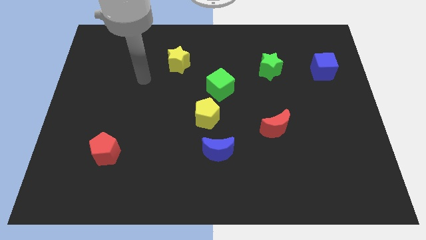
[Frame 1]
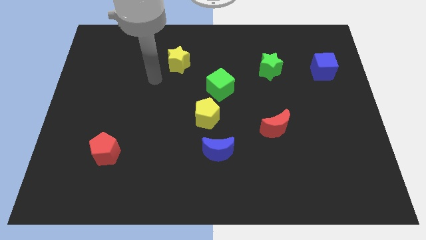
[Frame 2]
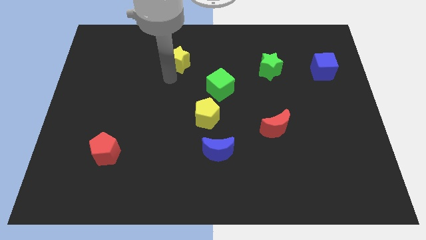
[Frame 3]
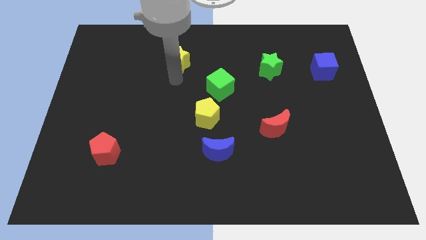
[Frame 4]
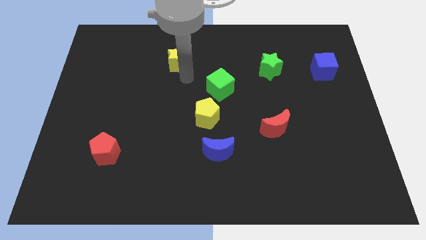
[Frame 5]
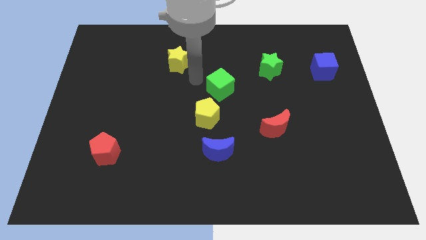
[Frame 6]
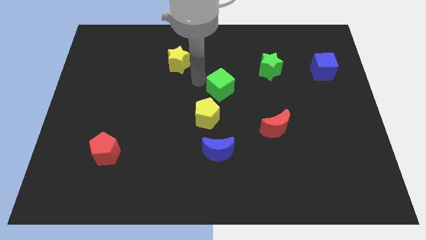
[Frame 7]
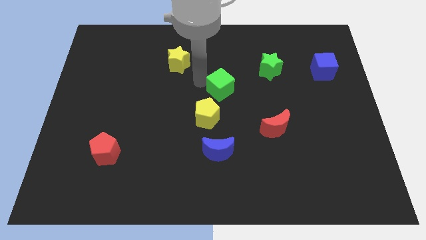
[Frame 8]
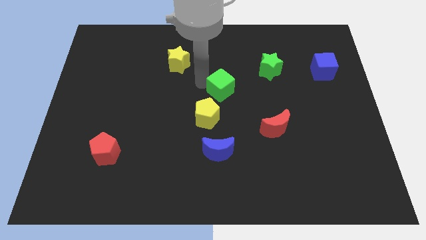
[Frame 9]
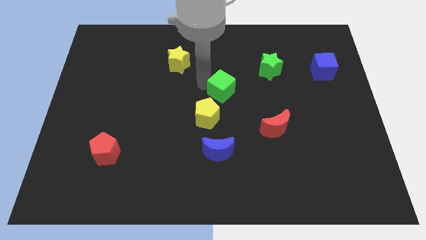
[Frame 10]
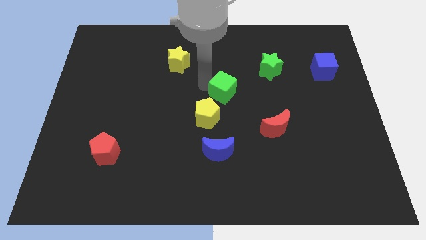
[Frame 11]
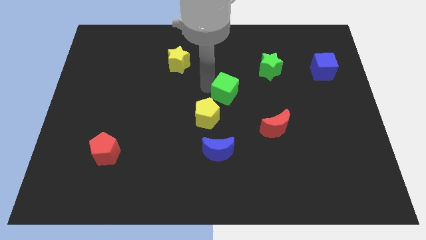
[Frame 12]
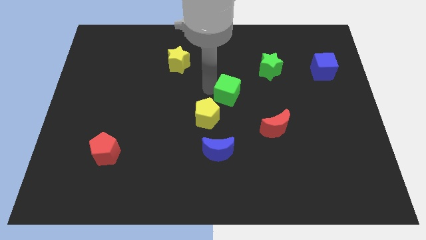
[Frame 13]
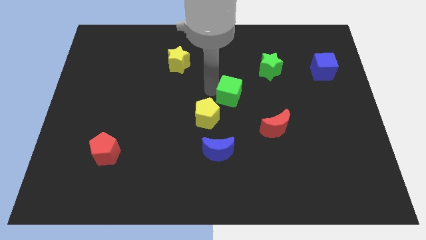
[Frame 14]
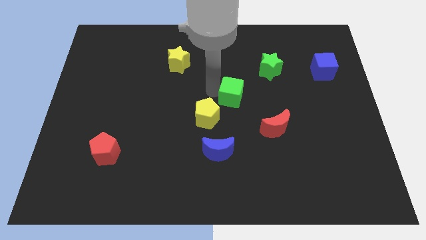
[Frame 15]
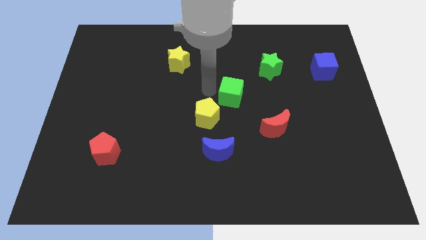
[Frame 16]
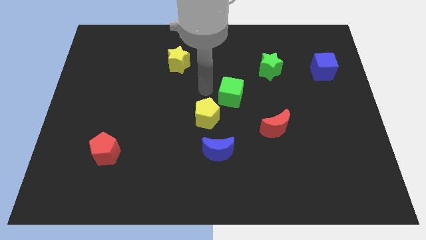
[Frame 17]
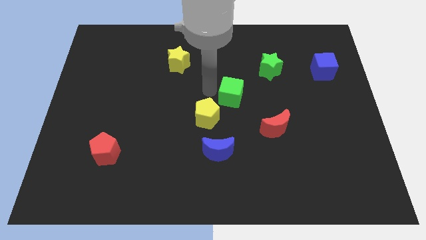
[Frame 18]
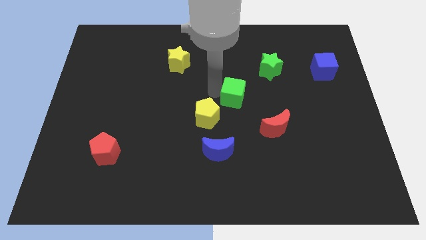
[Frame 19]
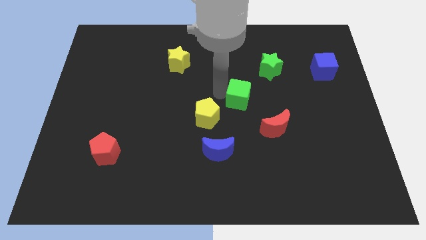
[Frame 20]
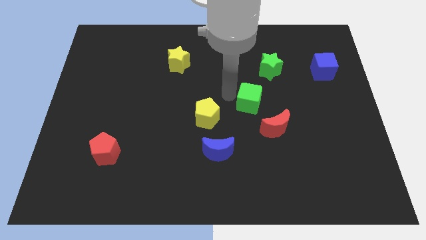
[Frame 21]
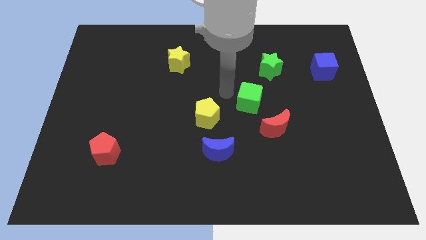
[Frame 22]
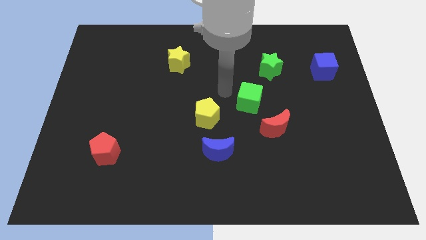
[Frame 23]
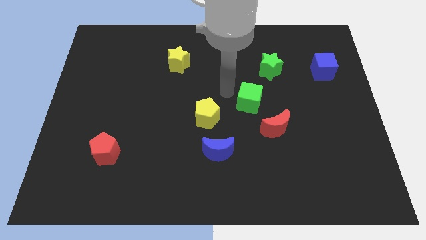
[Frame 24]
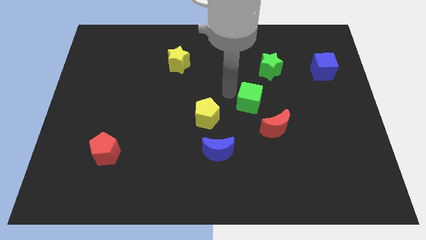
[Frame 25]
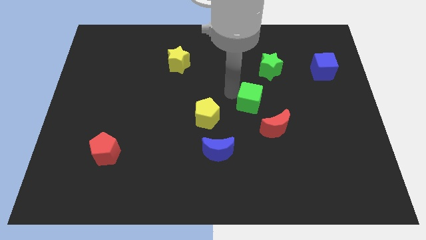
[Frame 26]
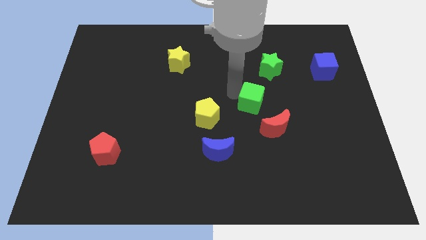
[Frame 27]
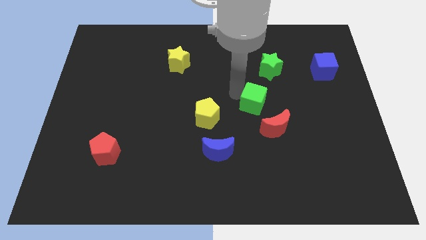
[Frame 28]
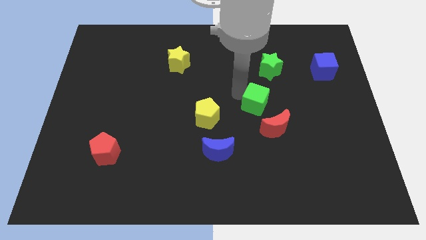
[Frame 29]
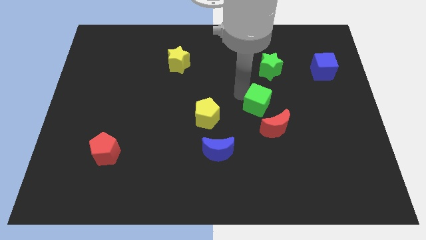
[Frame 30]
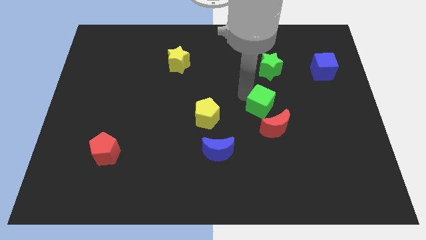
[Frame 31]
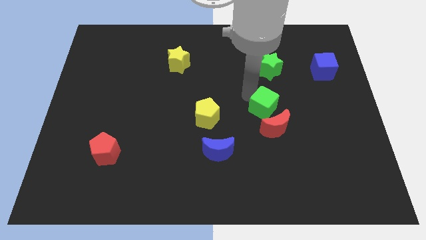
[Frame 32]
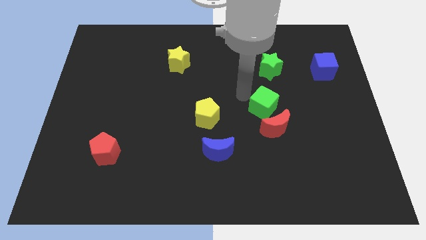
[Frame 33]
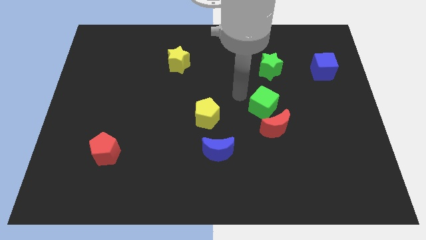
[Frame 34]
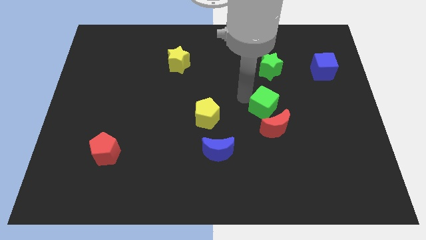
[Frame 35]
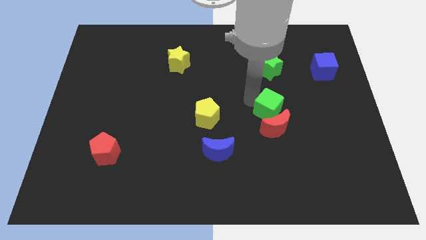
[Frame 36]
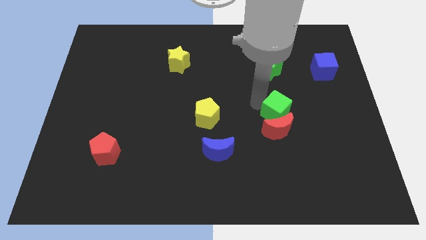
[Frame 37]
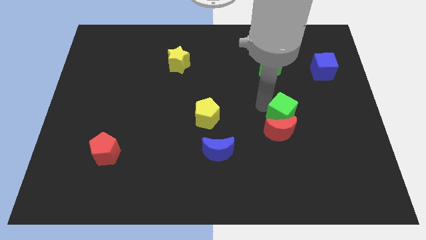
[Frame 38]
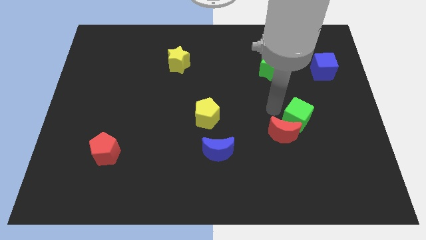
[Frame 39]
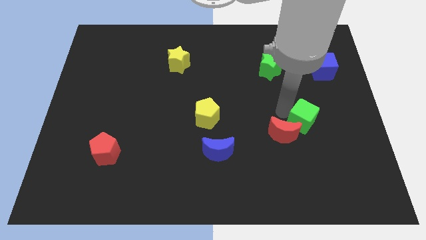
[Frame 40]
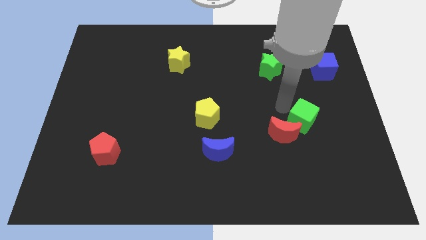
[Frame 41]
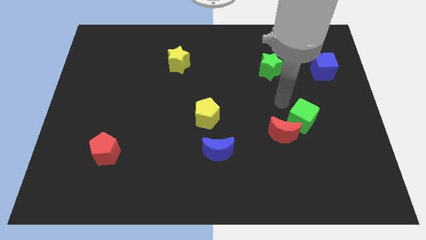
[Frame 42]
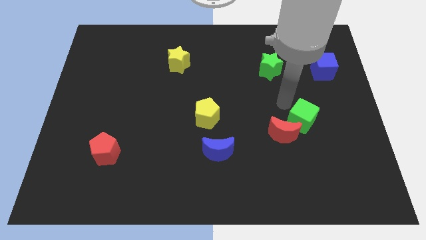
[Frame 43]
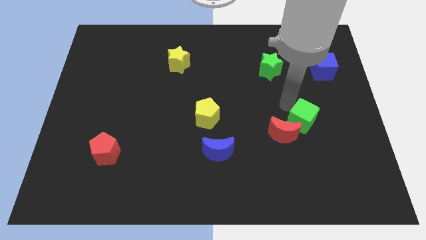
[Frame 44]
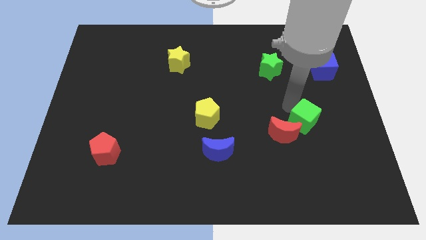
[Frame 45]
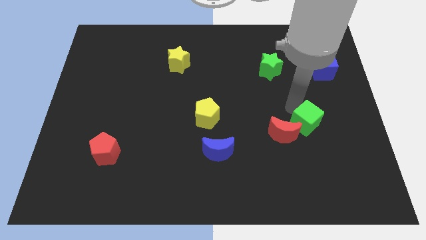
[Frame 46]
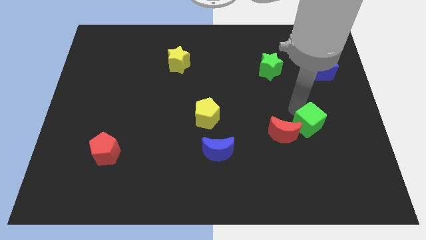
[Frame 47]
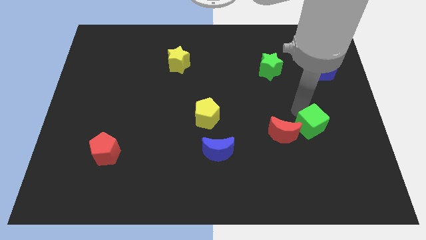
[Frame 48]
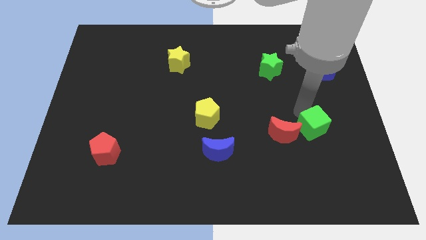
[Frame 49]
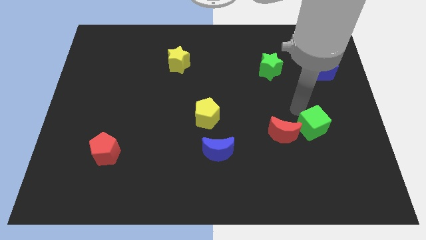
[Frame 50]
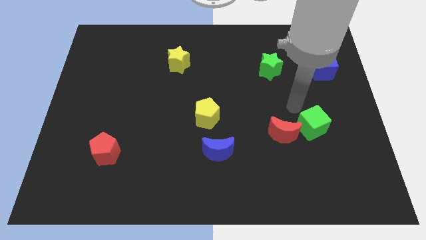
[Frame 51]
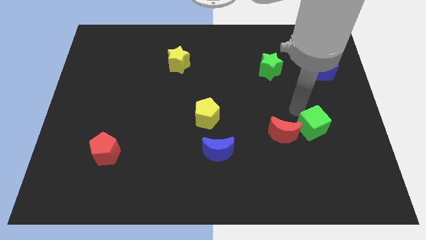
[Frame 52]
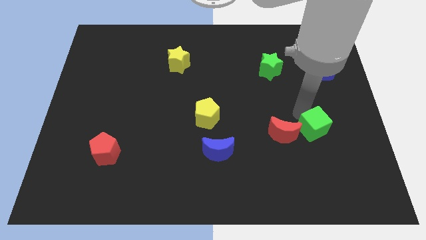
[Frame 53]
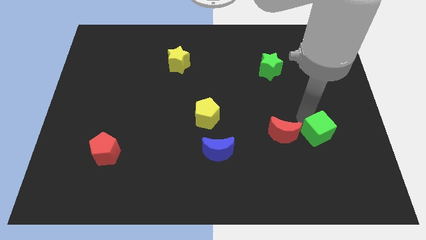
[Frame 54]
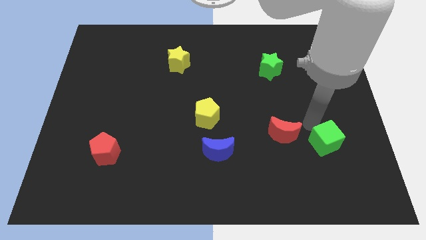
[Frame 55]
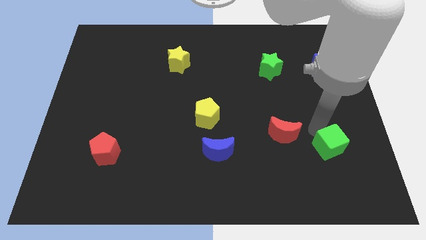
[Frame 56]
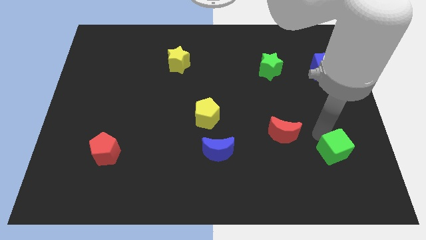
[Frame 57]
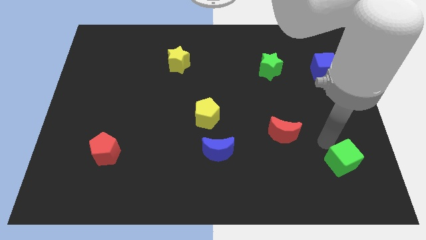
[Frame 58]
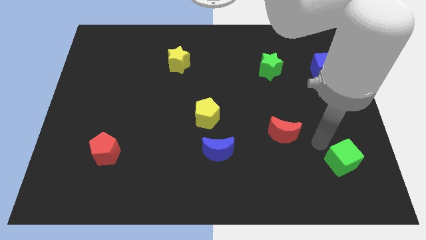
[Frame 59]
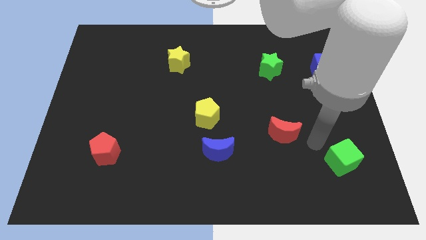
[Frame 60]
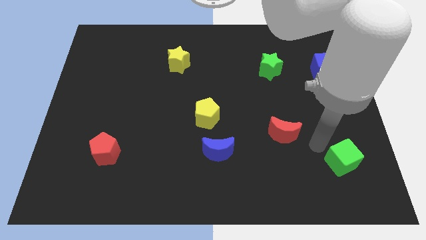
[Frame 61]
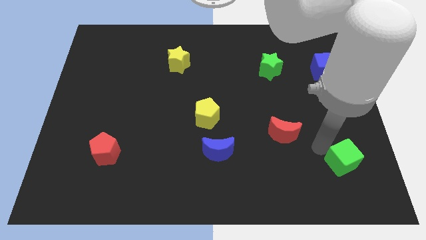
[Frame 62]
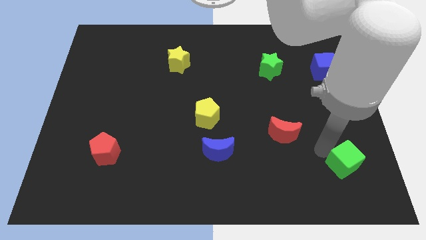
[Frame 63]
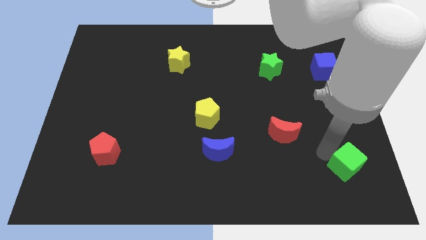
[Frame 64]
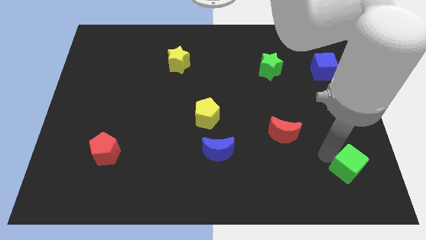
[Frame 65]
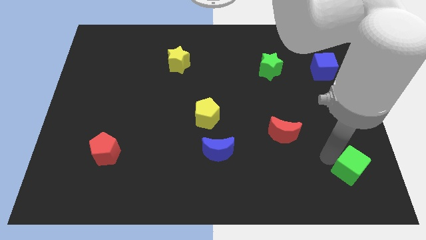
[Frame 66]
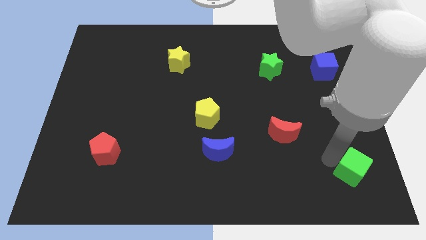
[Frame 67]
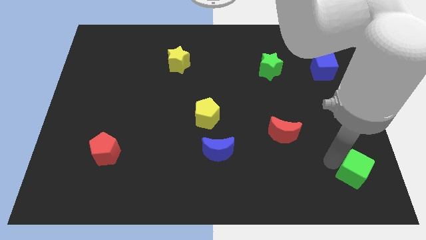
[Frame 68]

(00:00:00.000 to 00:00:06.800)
put the green cube to the bottom right corner

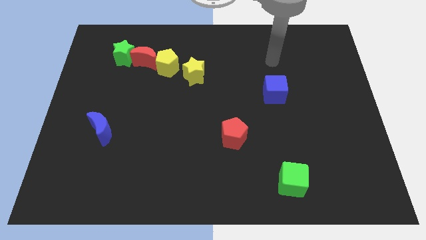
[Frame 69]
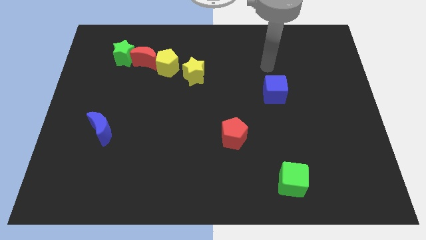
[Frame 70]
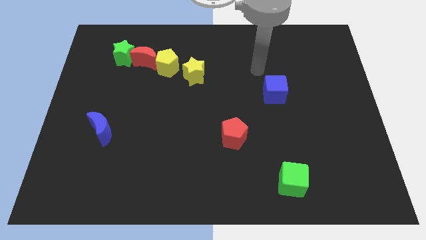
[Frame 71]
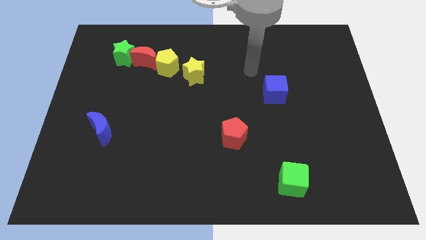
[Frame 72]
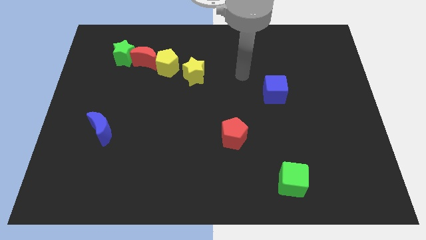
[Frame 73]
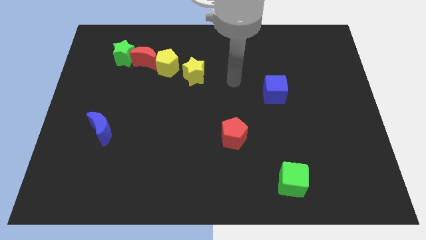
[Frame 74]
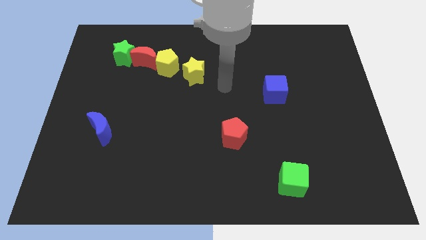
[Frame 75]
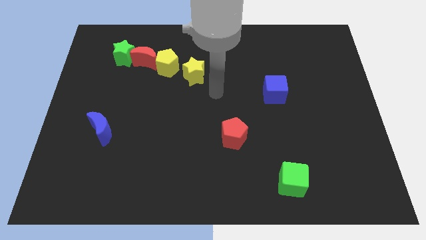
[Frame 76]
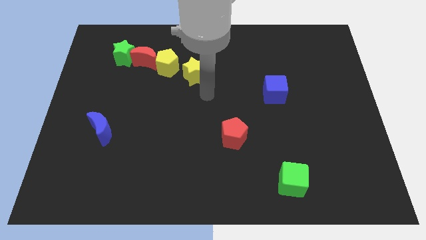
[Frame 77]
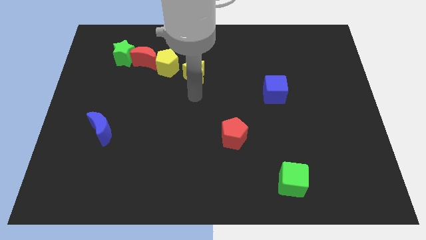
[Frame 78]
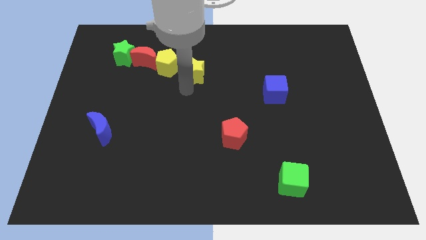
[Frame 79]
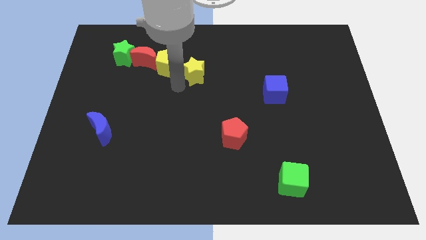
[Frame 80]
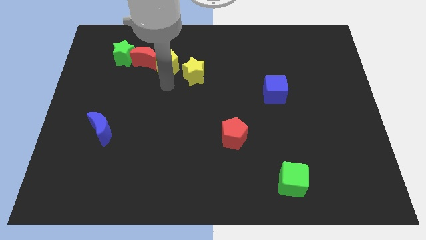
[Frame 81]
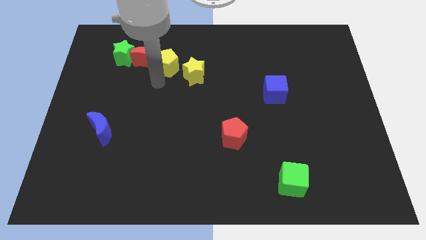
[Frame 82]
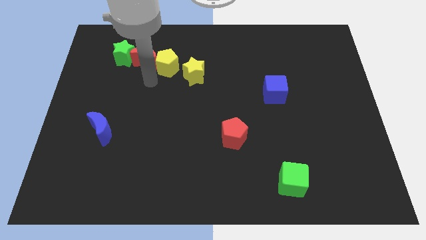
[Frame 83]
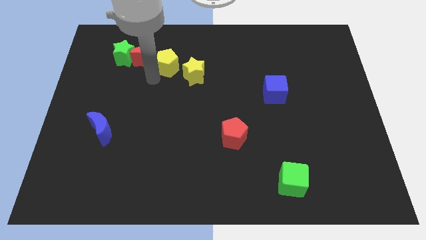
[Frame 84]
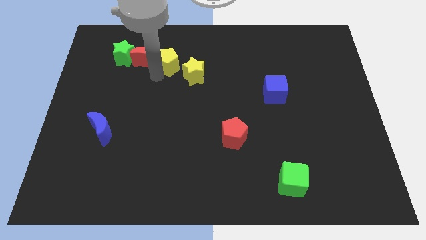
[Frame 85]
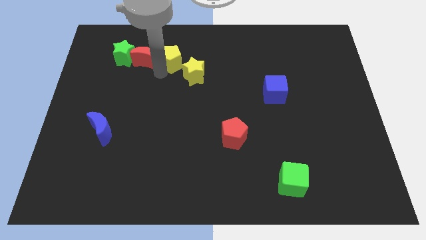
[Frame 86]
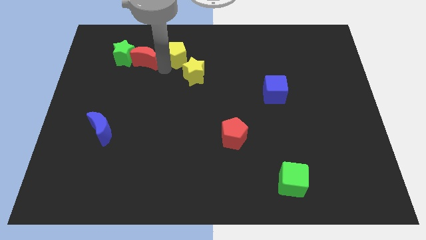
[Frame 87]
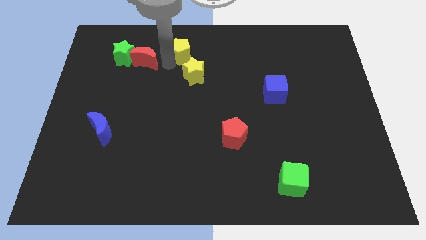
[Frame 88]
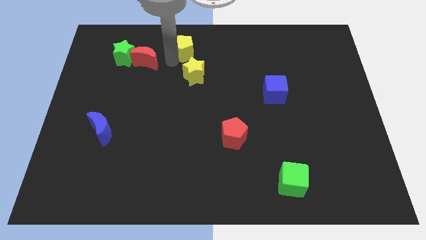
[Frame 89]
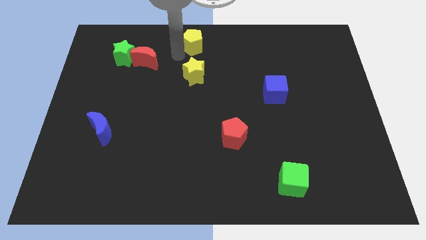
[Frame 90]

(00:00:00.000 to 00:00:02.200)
push the yellow pentagon to the towards your base
